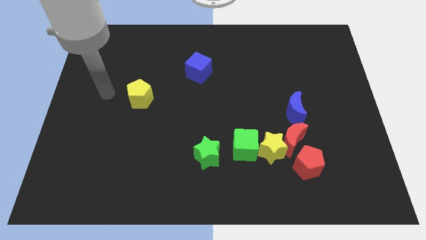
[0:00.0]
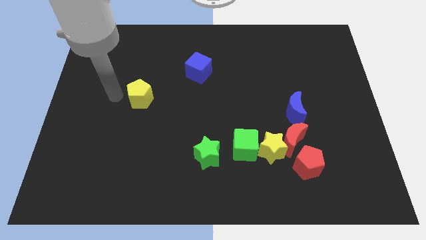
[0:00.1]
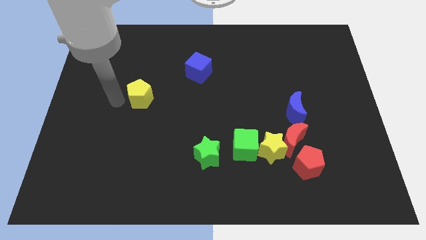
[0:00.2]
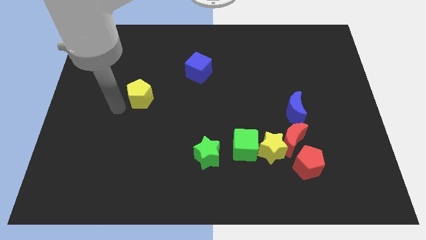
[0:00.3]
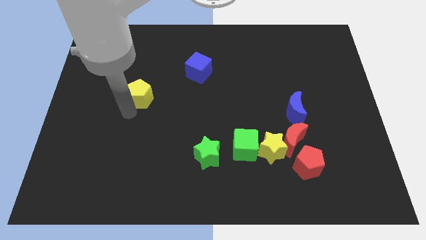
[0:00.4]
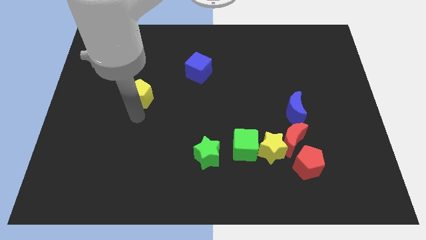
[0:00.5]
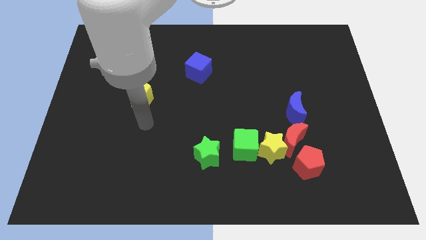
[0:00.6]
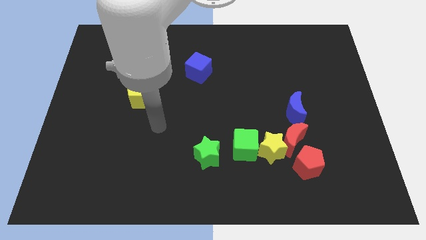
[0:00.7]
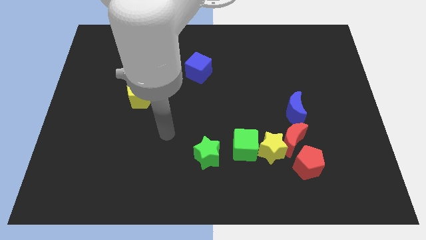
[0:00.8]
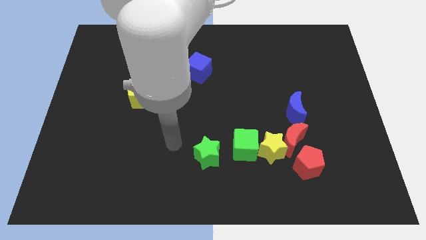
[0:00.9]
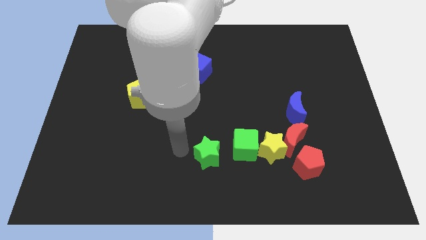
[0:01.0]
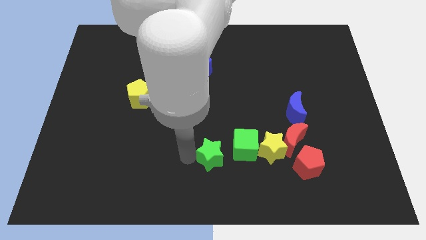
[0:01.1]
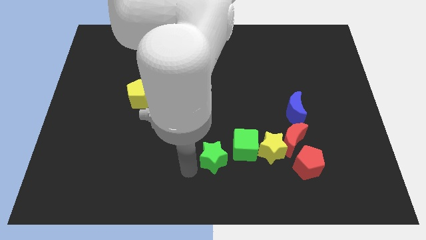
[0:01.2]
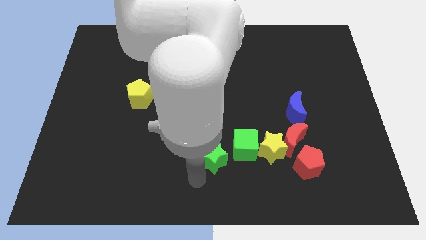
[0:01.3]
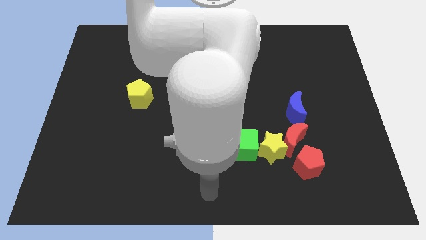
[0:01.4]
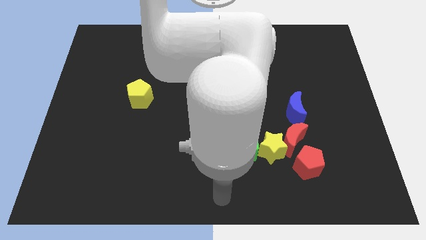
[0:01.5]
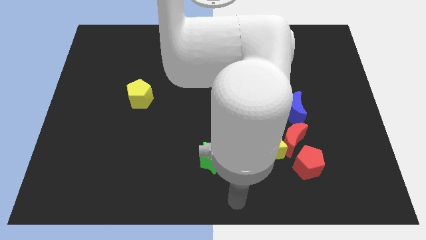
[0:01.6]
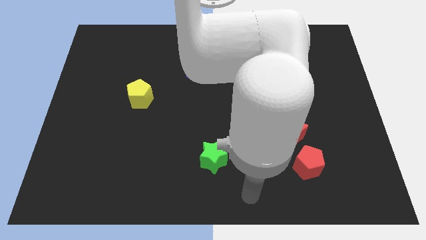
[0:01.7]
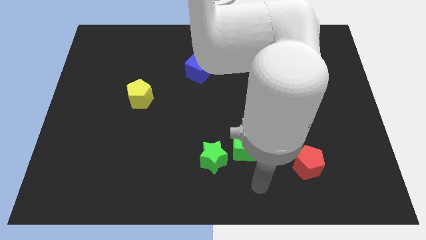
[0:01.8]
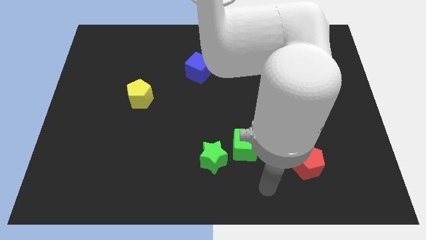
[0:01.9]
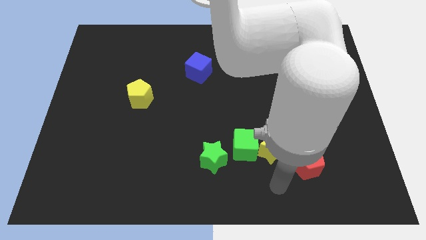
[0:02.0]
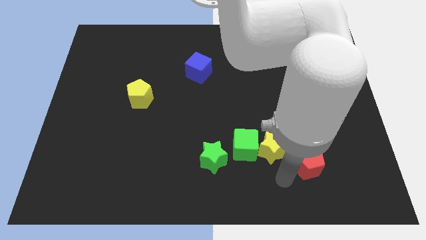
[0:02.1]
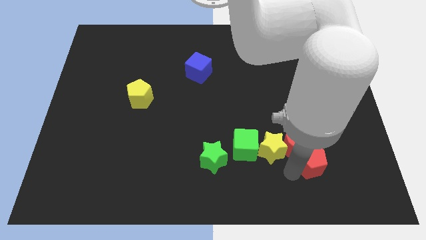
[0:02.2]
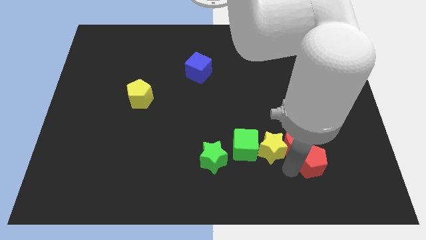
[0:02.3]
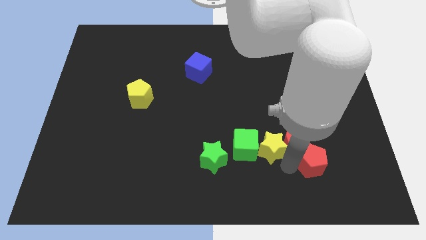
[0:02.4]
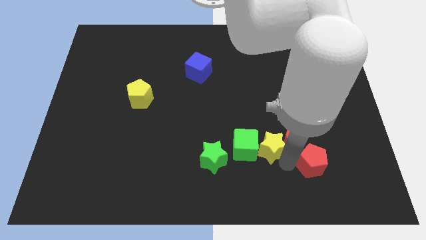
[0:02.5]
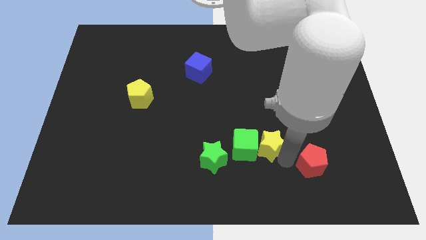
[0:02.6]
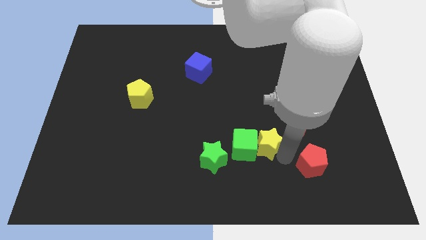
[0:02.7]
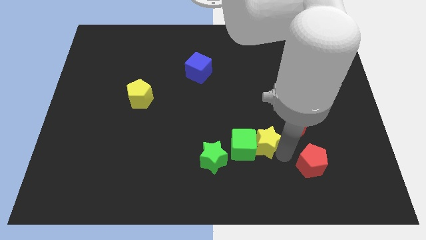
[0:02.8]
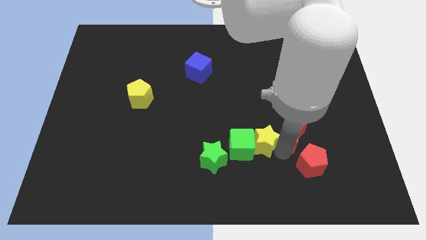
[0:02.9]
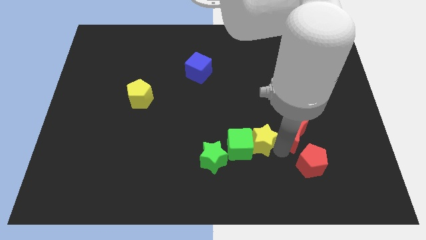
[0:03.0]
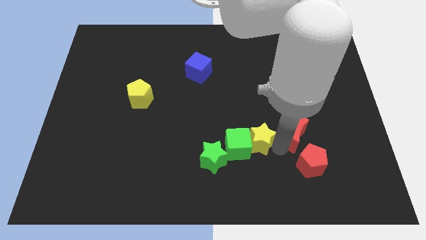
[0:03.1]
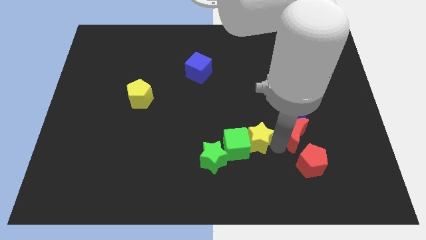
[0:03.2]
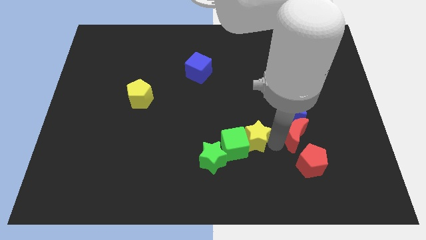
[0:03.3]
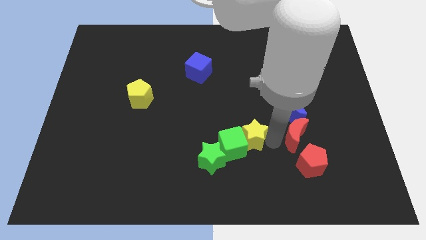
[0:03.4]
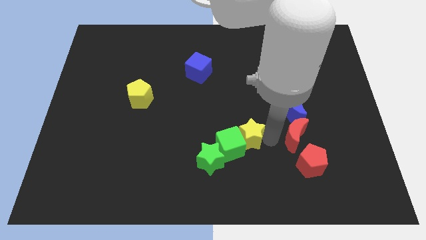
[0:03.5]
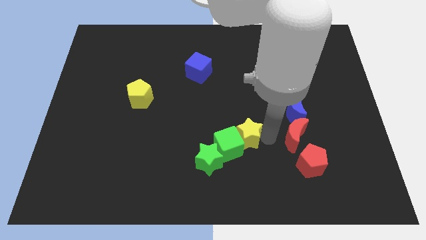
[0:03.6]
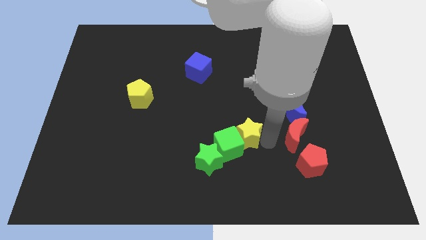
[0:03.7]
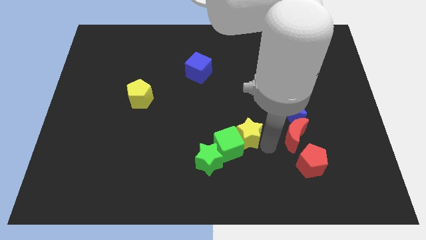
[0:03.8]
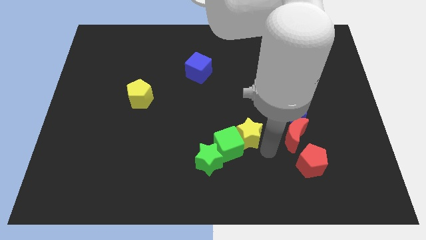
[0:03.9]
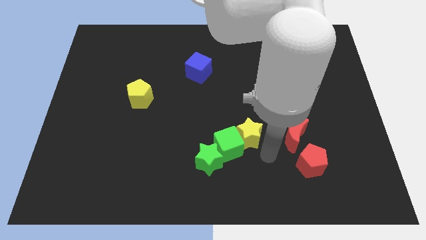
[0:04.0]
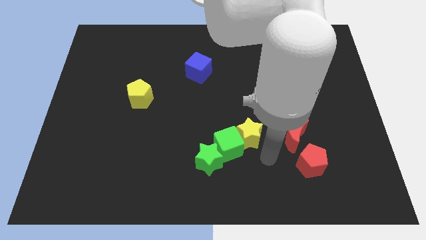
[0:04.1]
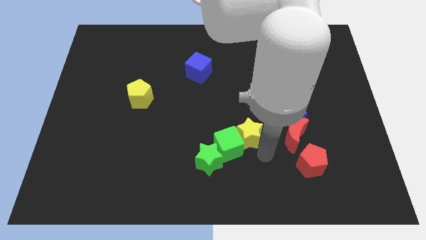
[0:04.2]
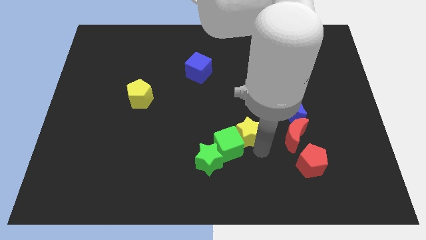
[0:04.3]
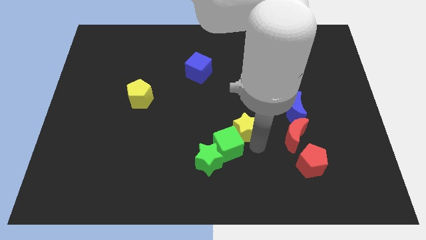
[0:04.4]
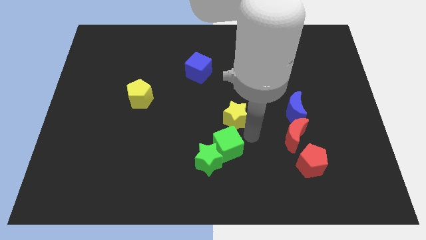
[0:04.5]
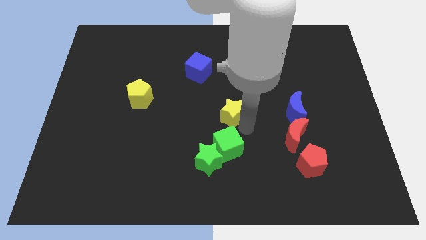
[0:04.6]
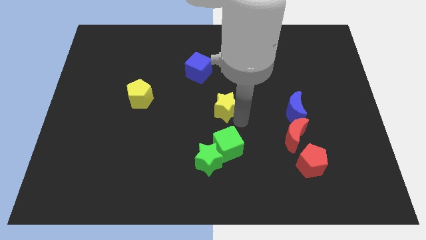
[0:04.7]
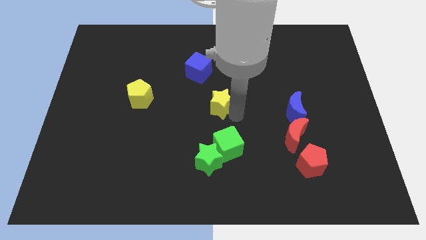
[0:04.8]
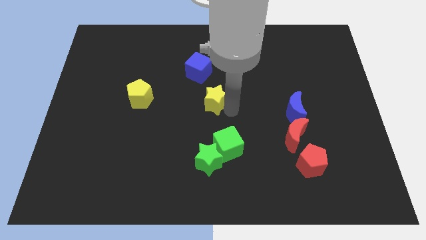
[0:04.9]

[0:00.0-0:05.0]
put the yellow star to the bottom of the blue cube

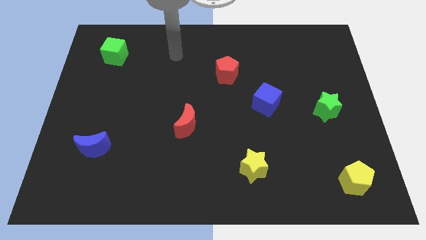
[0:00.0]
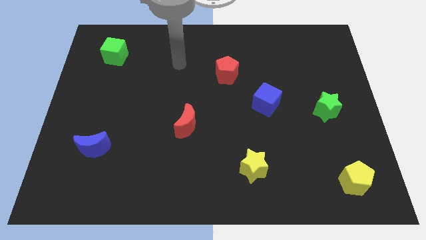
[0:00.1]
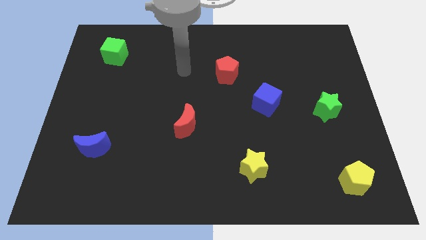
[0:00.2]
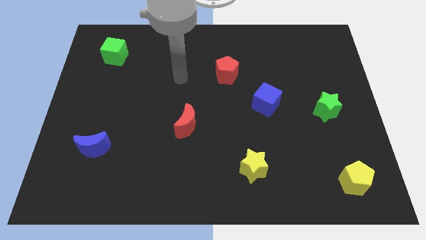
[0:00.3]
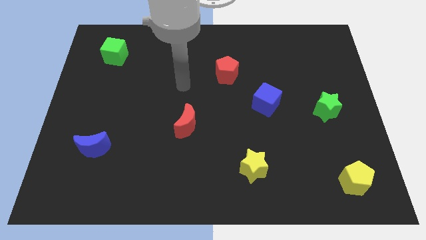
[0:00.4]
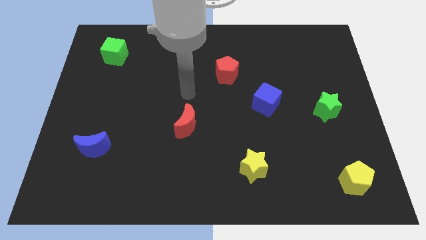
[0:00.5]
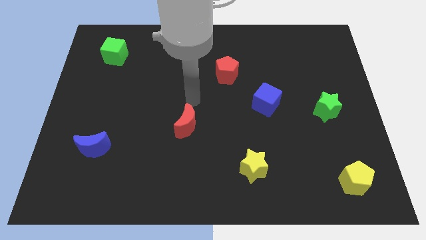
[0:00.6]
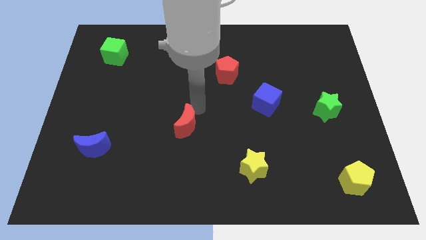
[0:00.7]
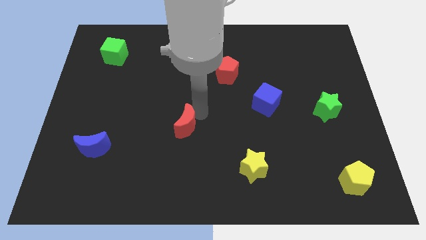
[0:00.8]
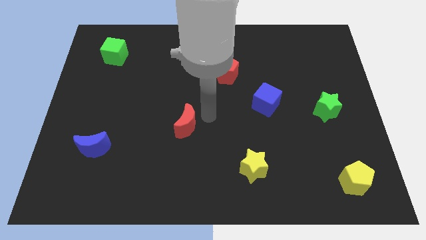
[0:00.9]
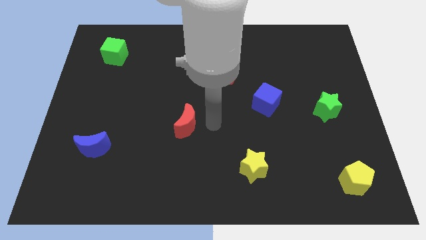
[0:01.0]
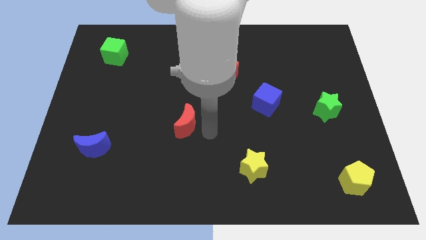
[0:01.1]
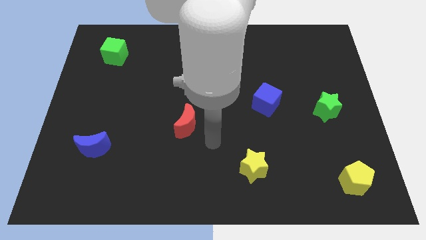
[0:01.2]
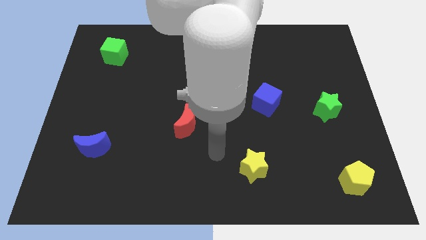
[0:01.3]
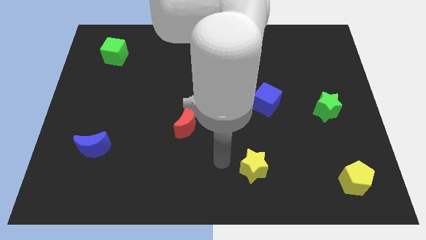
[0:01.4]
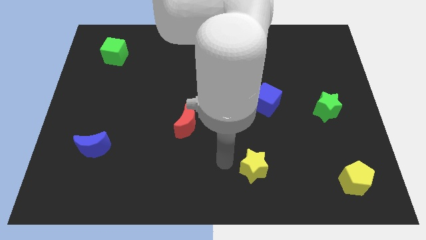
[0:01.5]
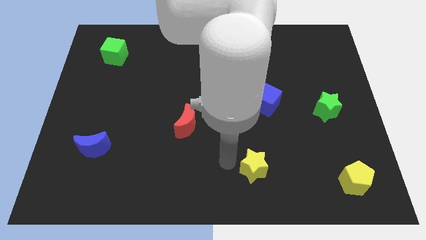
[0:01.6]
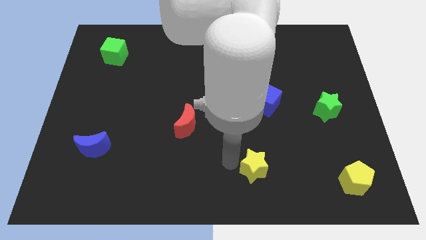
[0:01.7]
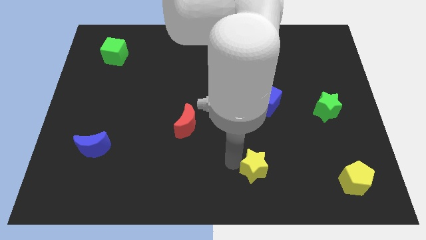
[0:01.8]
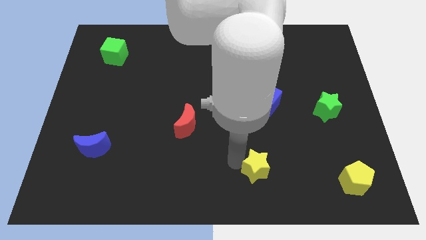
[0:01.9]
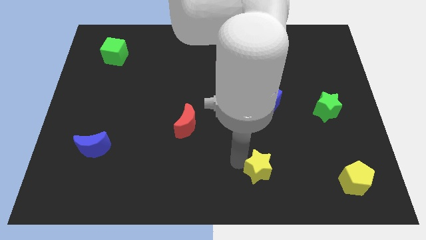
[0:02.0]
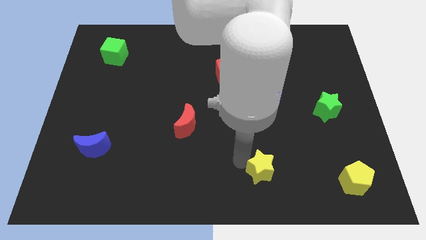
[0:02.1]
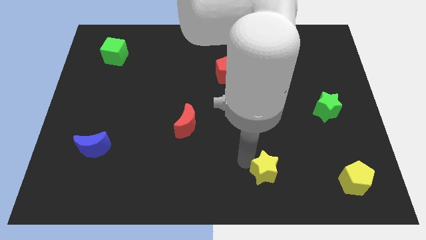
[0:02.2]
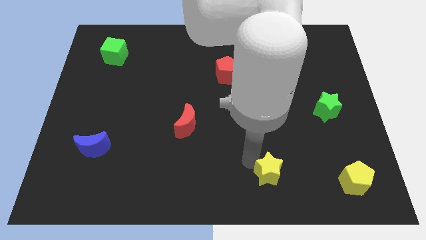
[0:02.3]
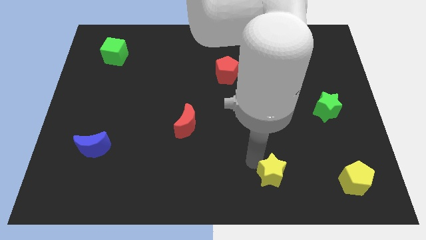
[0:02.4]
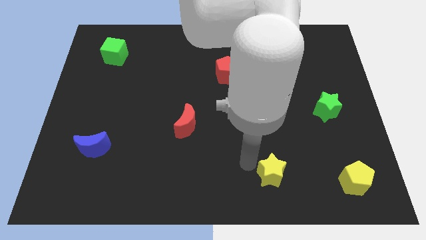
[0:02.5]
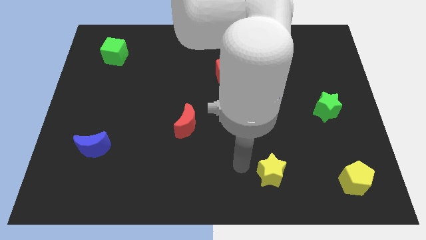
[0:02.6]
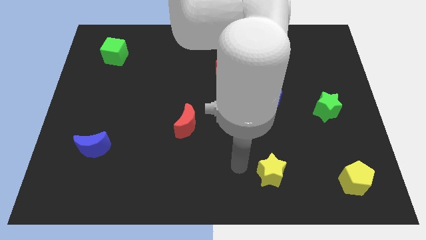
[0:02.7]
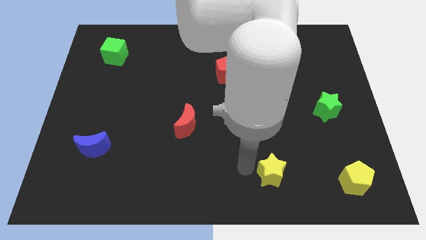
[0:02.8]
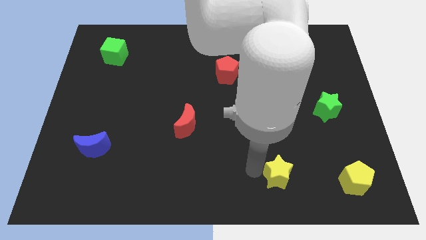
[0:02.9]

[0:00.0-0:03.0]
put the yellow star to the left of the yellow pentagon

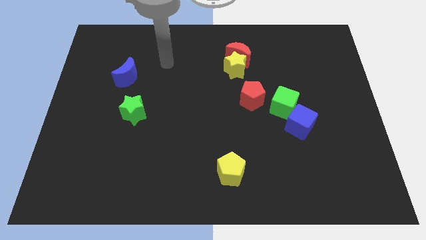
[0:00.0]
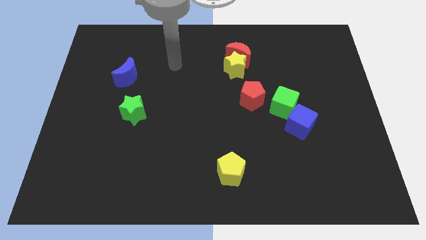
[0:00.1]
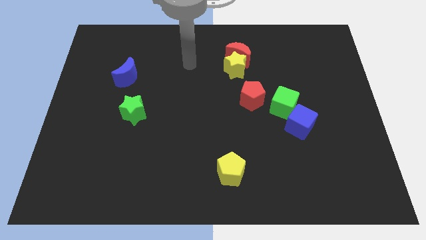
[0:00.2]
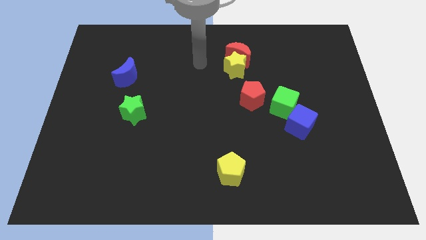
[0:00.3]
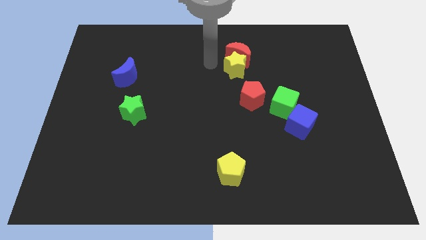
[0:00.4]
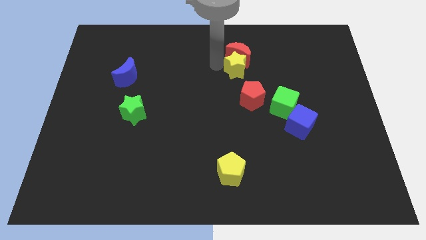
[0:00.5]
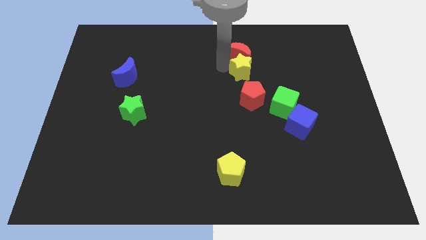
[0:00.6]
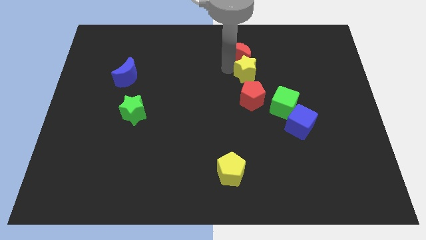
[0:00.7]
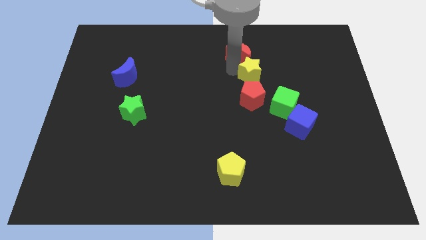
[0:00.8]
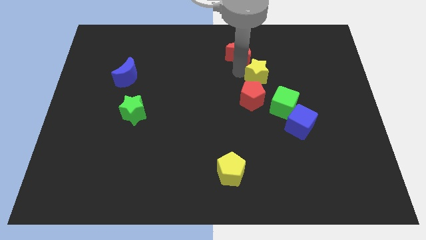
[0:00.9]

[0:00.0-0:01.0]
move the yellow star to the top right side of the red pentagon
